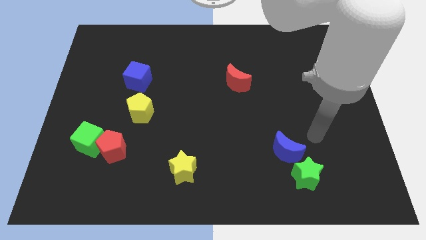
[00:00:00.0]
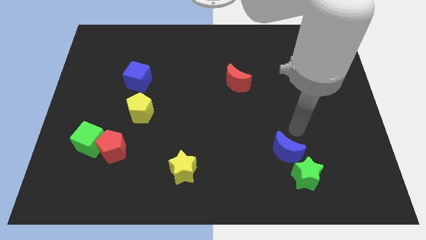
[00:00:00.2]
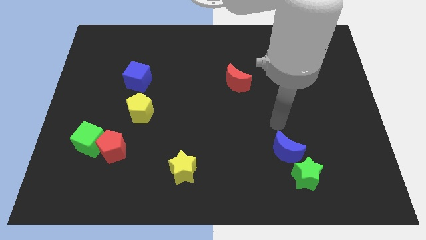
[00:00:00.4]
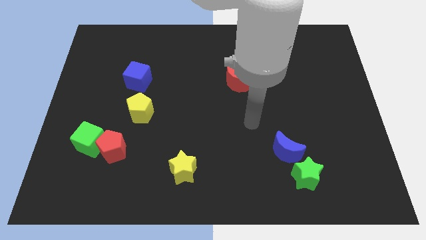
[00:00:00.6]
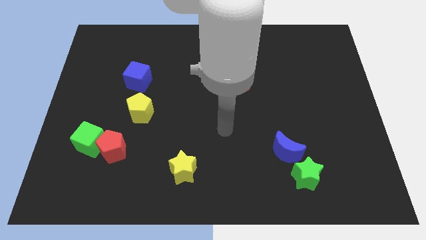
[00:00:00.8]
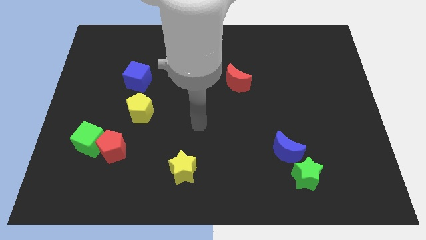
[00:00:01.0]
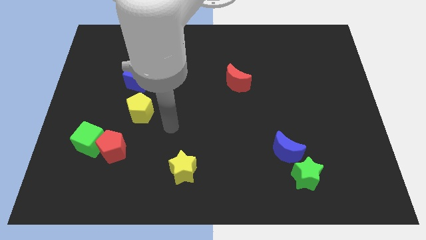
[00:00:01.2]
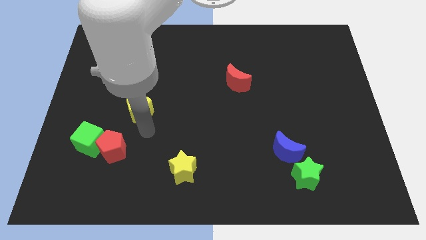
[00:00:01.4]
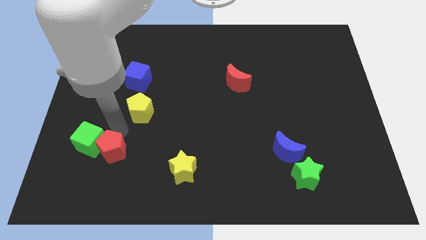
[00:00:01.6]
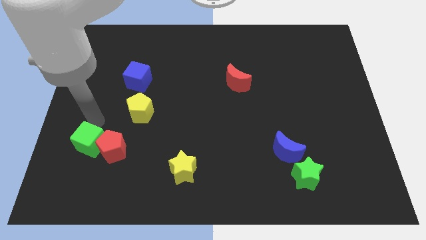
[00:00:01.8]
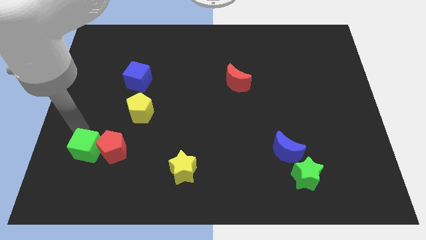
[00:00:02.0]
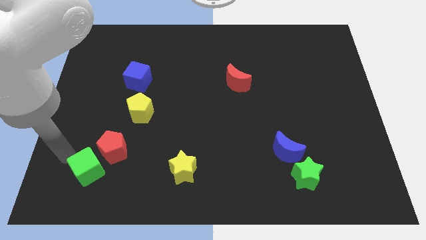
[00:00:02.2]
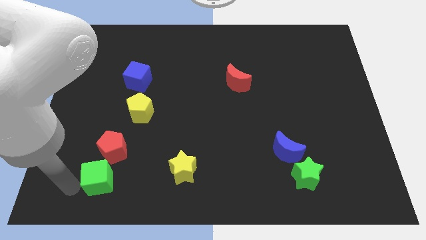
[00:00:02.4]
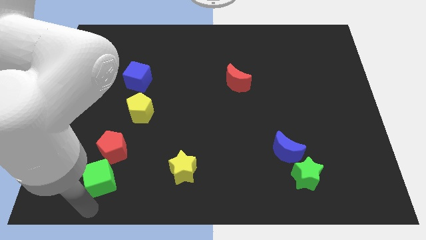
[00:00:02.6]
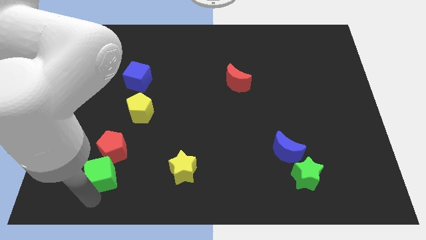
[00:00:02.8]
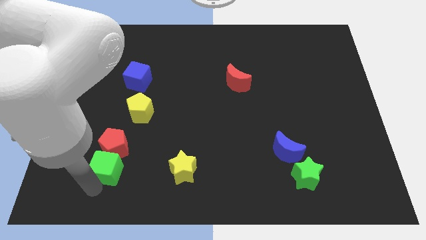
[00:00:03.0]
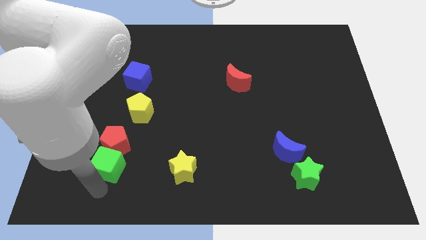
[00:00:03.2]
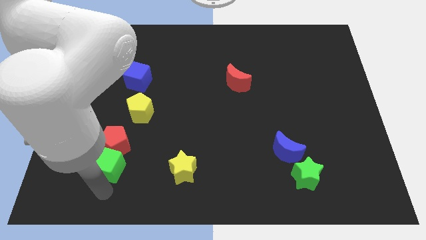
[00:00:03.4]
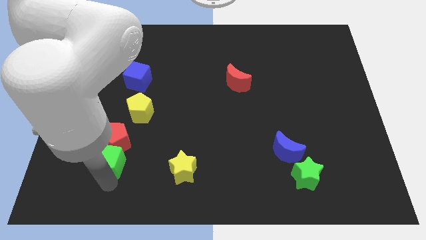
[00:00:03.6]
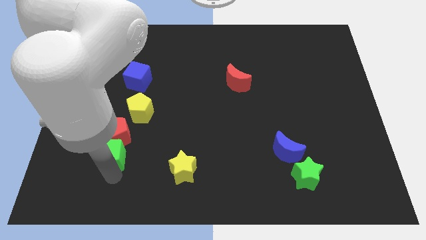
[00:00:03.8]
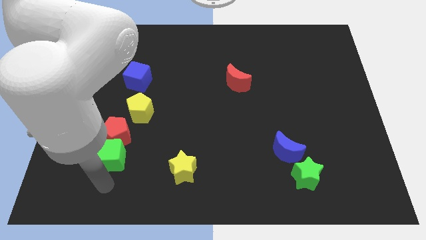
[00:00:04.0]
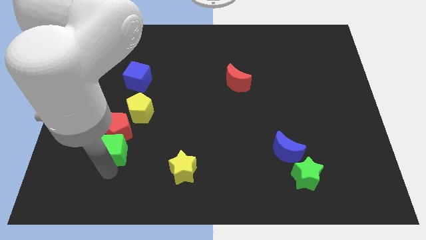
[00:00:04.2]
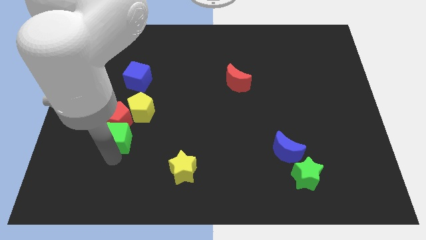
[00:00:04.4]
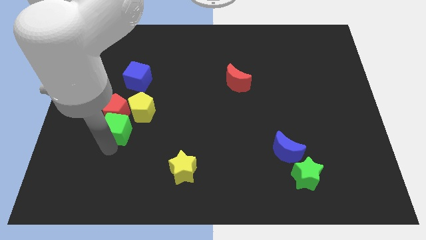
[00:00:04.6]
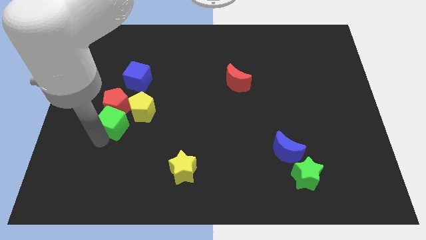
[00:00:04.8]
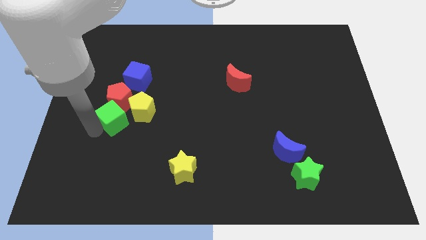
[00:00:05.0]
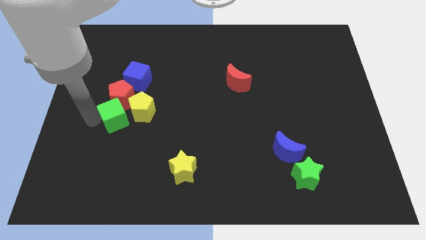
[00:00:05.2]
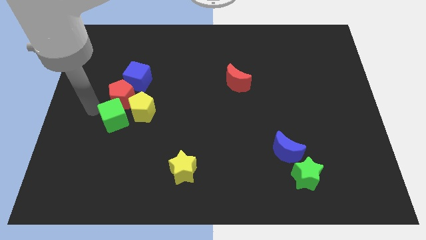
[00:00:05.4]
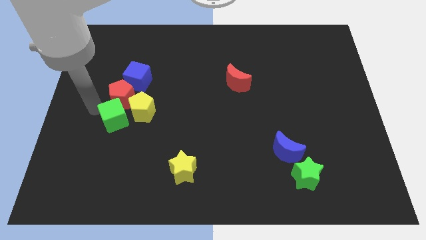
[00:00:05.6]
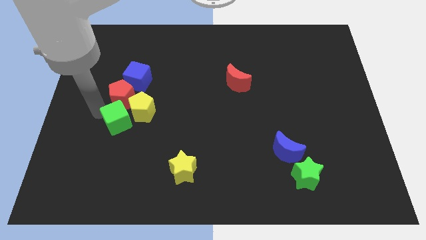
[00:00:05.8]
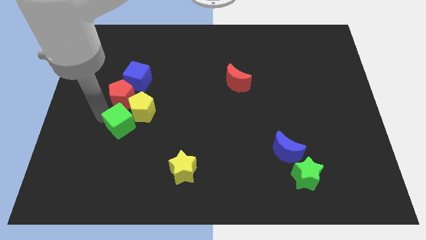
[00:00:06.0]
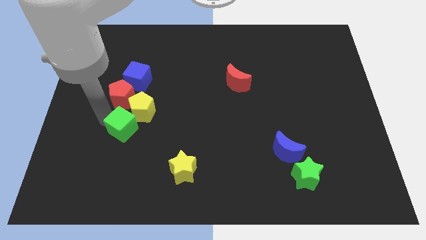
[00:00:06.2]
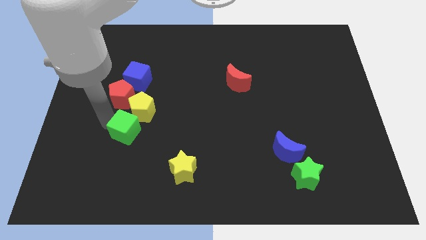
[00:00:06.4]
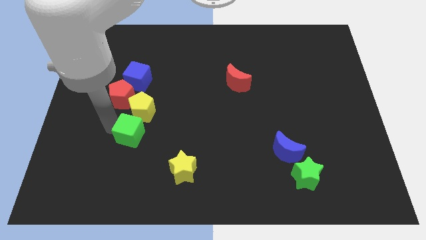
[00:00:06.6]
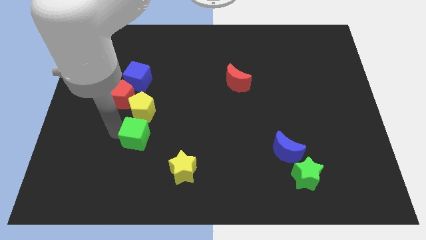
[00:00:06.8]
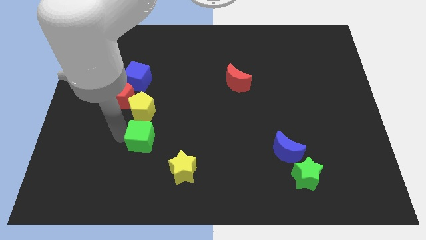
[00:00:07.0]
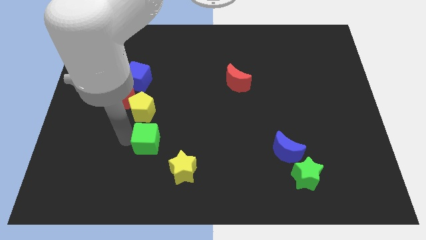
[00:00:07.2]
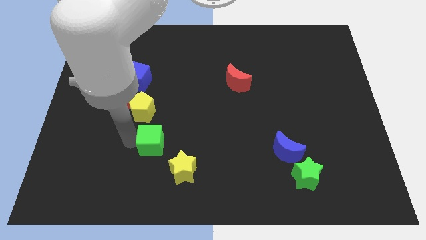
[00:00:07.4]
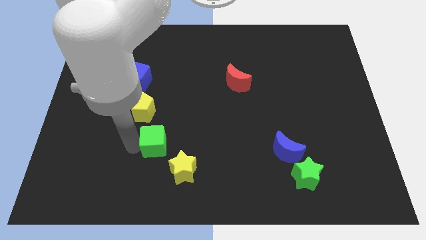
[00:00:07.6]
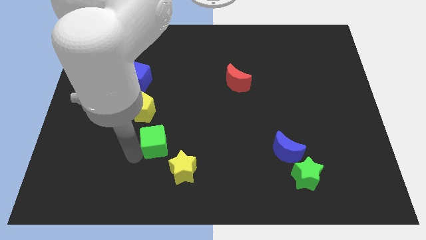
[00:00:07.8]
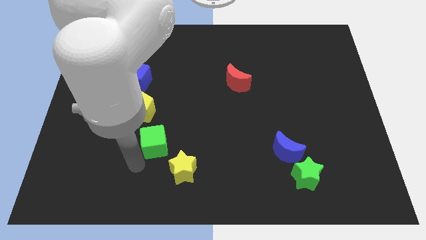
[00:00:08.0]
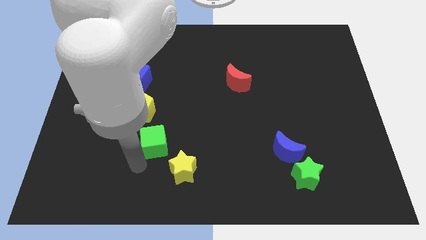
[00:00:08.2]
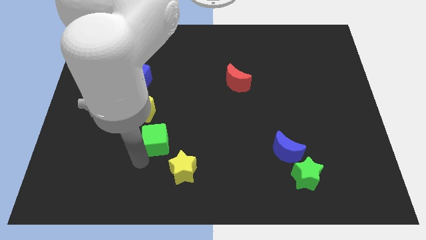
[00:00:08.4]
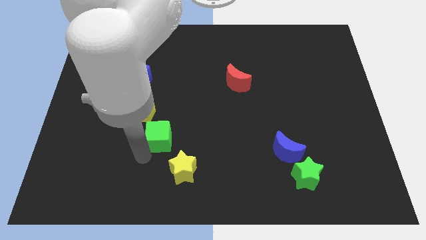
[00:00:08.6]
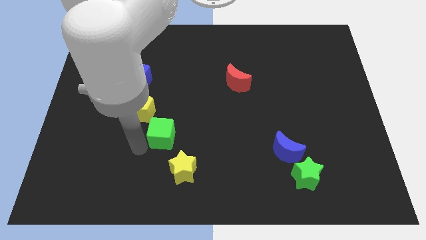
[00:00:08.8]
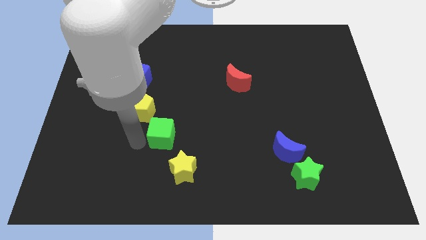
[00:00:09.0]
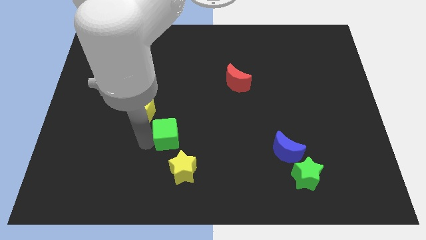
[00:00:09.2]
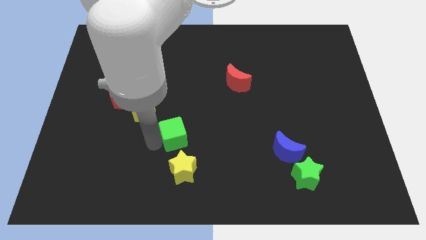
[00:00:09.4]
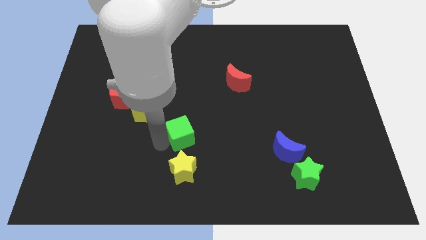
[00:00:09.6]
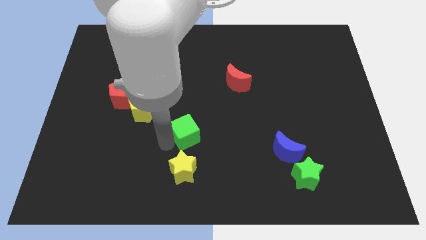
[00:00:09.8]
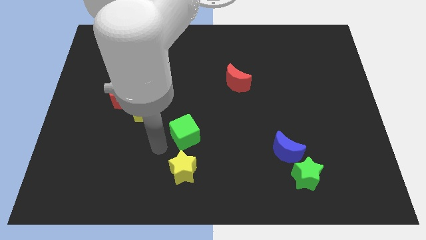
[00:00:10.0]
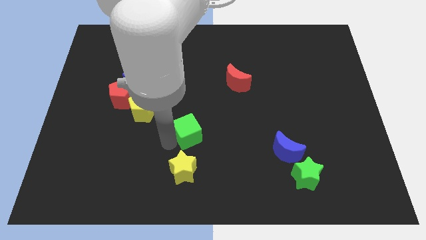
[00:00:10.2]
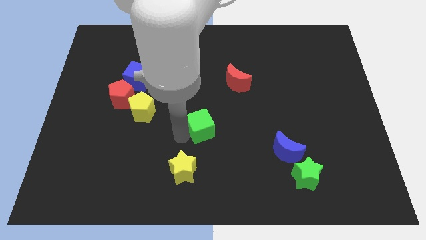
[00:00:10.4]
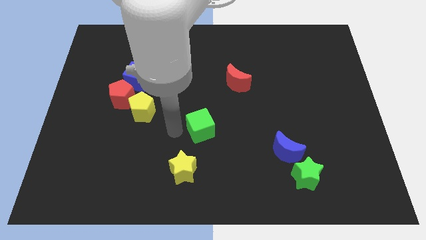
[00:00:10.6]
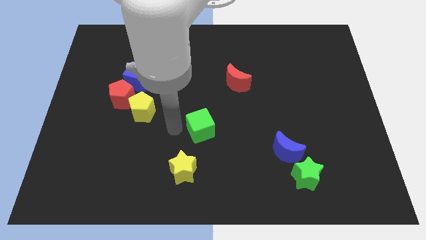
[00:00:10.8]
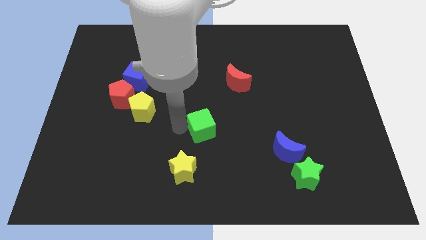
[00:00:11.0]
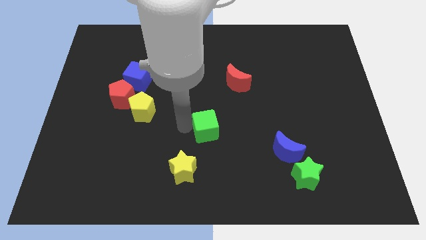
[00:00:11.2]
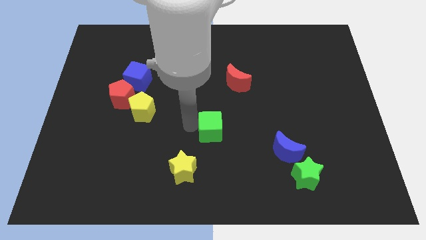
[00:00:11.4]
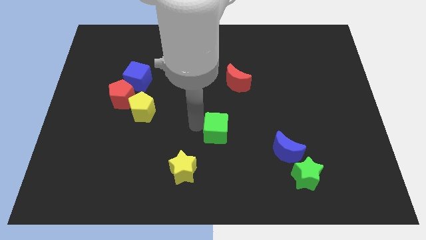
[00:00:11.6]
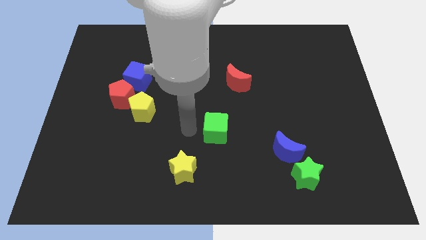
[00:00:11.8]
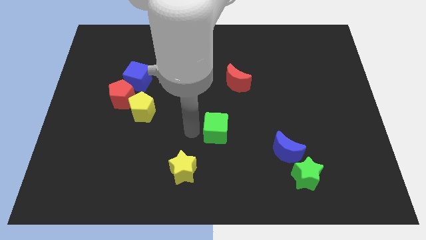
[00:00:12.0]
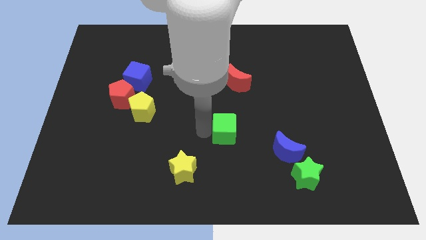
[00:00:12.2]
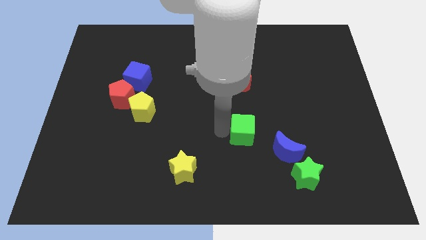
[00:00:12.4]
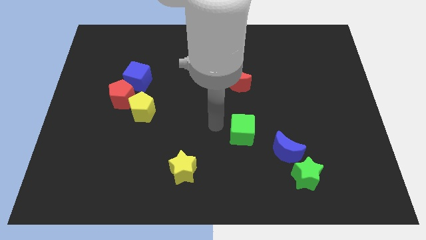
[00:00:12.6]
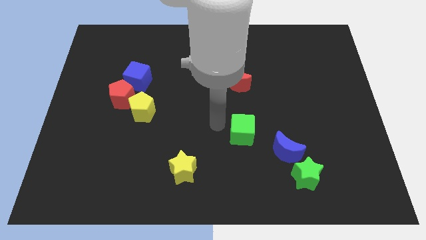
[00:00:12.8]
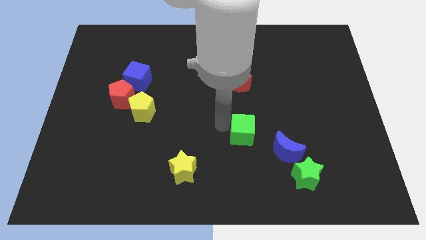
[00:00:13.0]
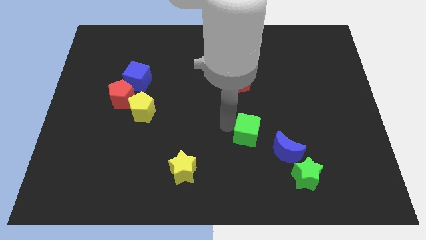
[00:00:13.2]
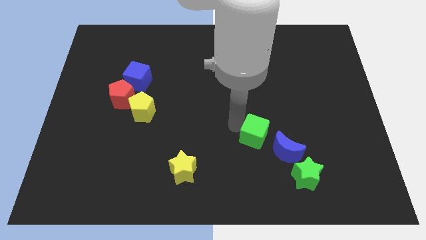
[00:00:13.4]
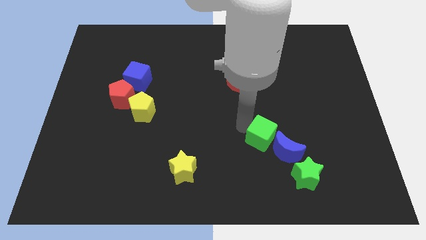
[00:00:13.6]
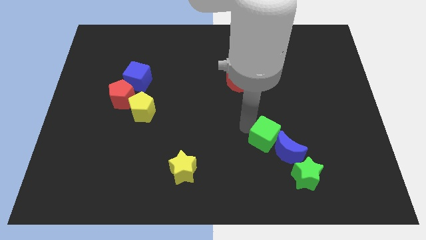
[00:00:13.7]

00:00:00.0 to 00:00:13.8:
slide the green cube next to the blue moon
